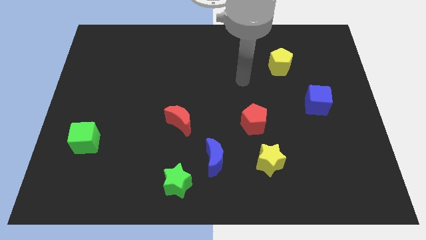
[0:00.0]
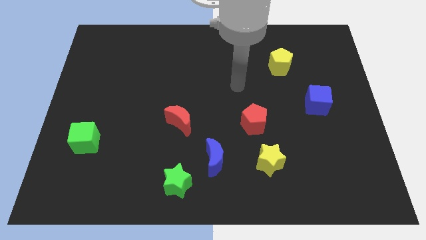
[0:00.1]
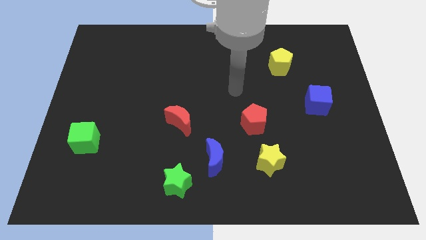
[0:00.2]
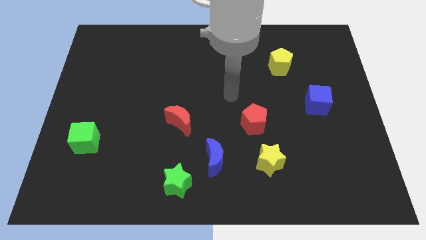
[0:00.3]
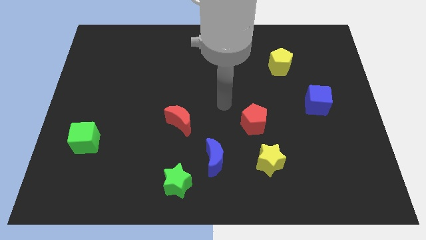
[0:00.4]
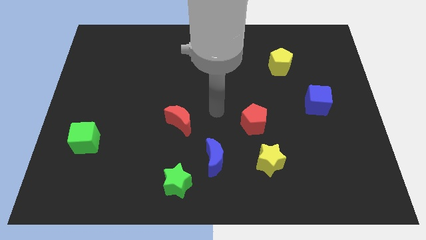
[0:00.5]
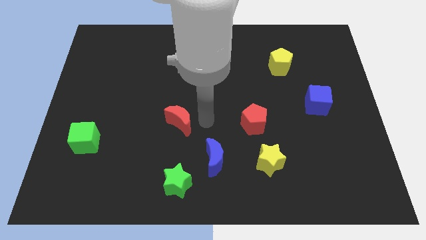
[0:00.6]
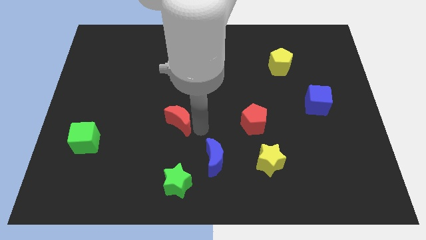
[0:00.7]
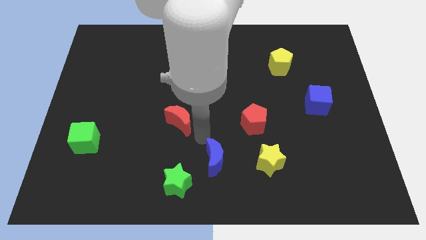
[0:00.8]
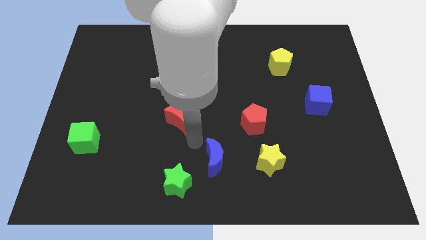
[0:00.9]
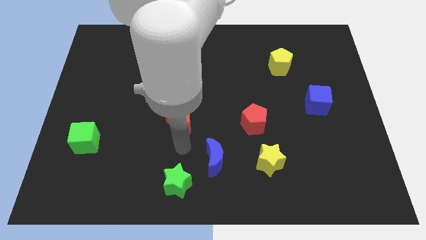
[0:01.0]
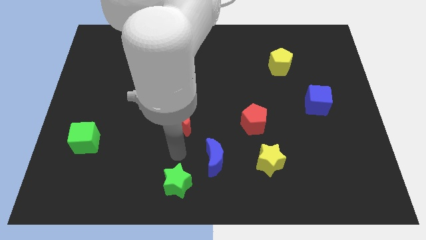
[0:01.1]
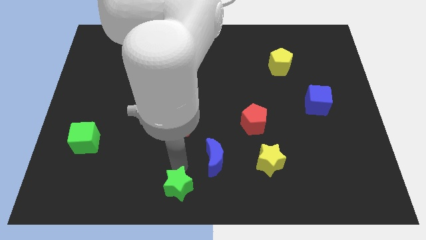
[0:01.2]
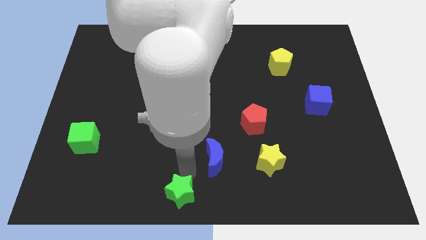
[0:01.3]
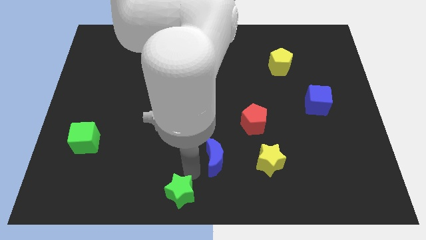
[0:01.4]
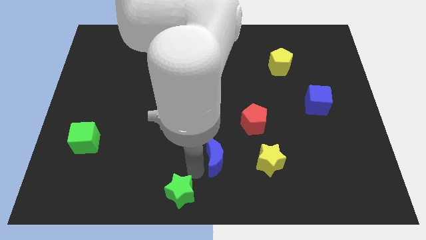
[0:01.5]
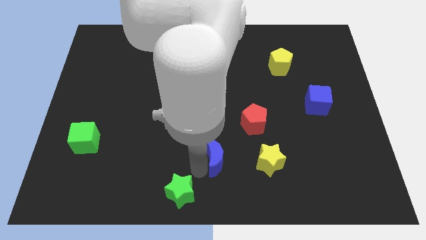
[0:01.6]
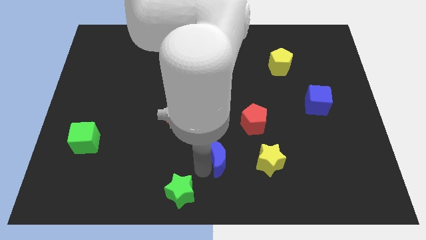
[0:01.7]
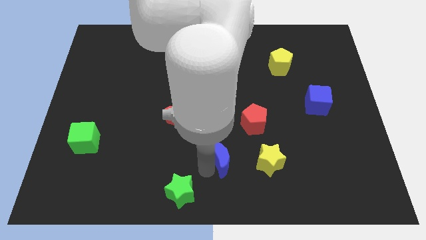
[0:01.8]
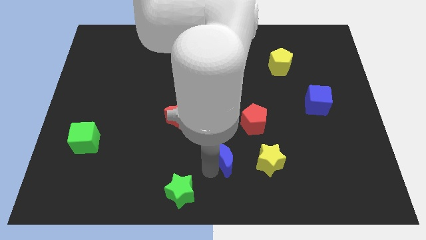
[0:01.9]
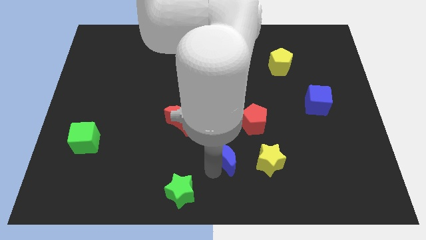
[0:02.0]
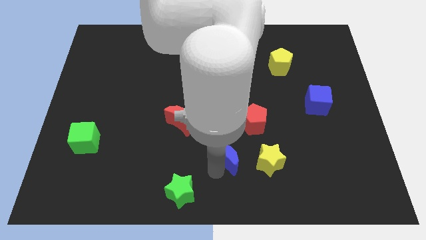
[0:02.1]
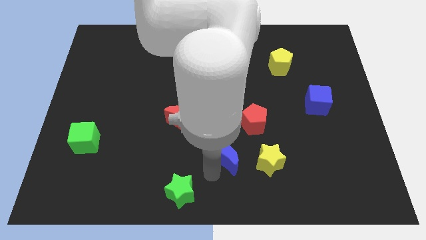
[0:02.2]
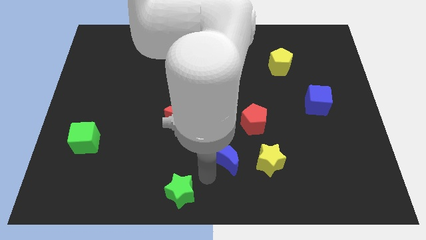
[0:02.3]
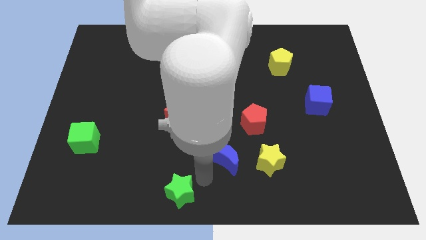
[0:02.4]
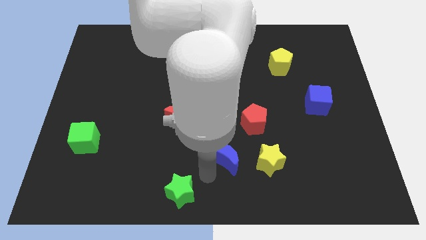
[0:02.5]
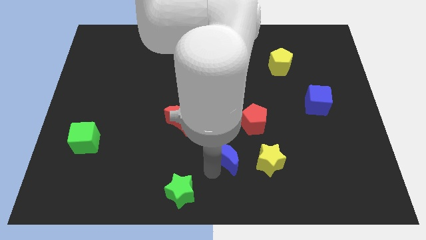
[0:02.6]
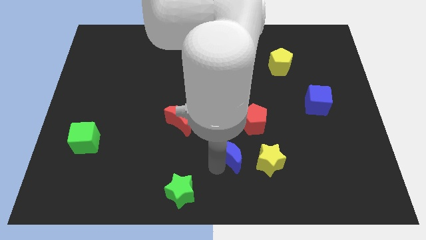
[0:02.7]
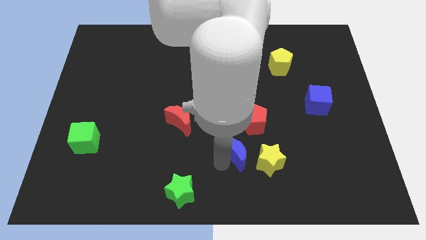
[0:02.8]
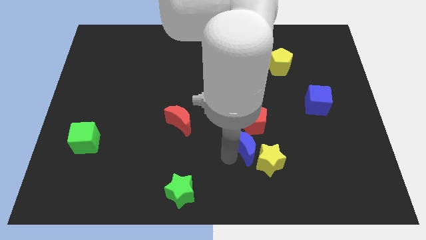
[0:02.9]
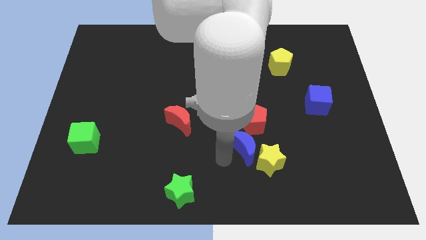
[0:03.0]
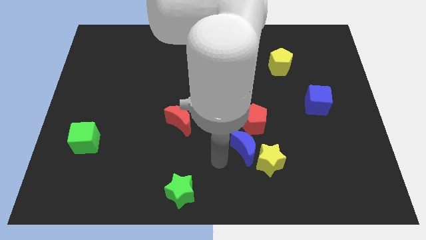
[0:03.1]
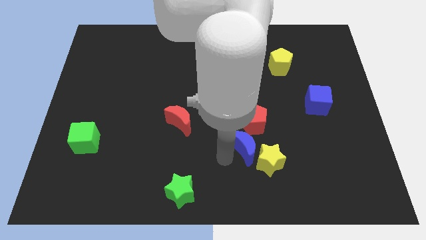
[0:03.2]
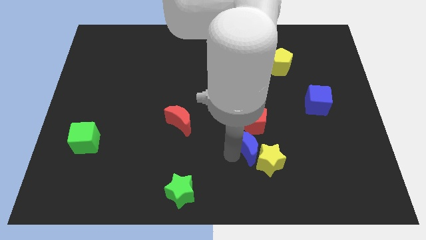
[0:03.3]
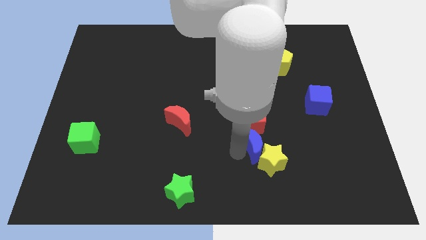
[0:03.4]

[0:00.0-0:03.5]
move the blue moon slightly upwards and to the right diagonally

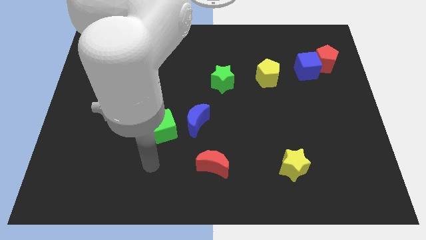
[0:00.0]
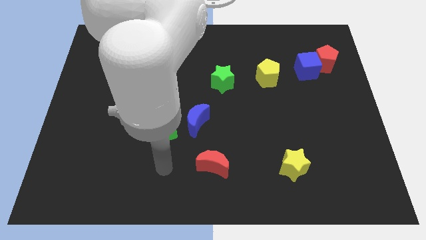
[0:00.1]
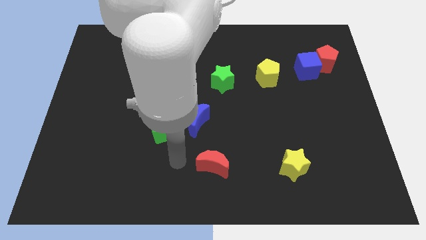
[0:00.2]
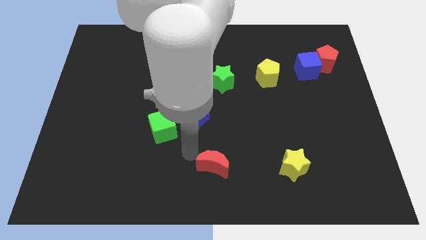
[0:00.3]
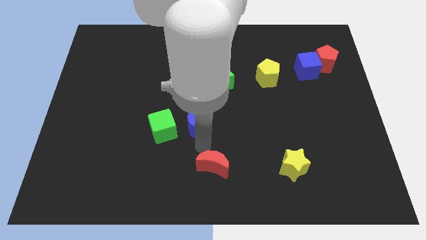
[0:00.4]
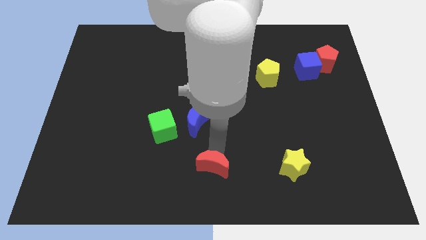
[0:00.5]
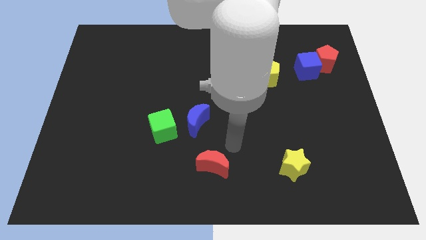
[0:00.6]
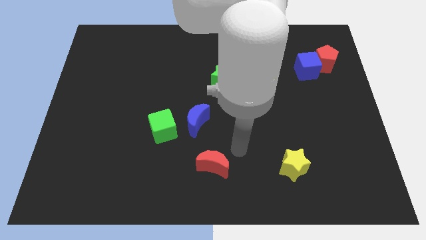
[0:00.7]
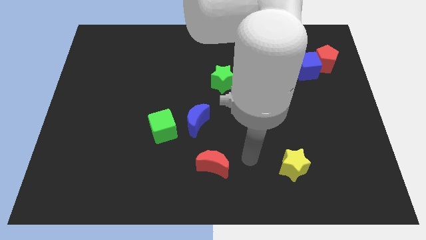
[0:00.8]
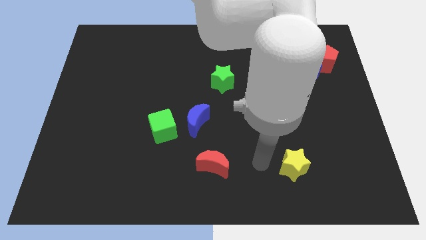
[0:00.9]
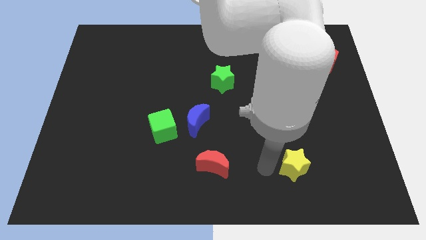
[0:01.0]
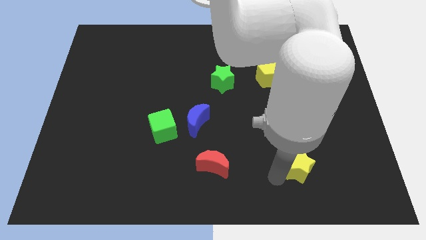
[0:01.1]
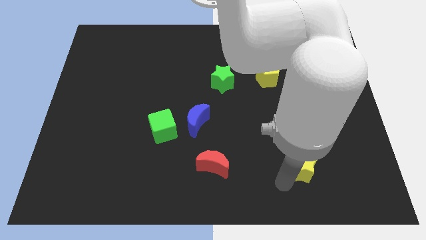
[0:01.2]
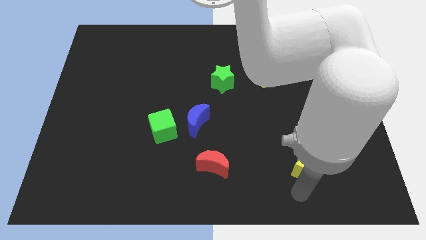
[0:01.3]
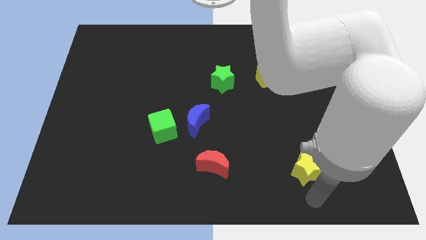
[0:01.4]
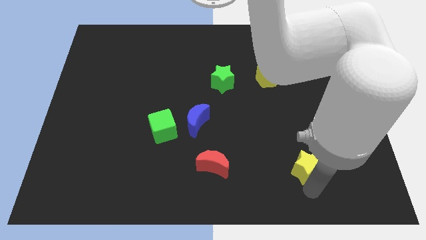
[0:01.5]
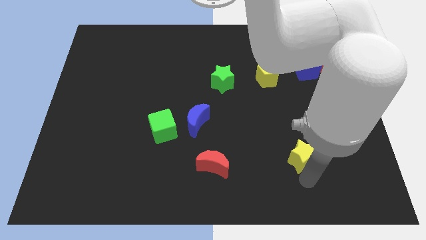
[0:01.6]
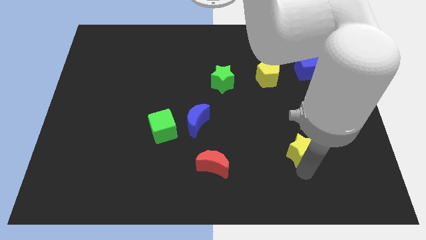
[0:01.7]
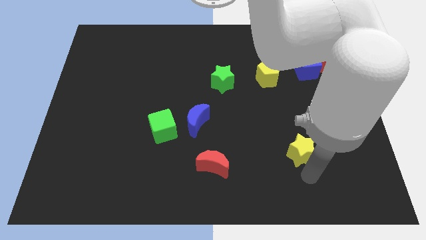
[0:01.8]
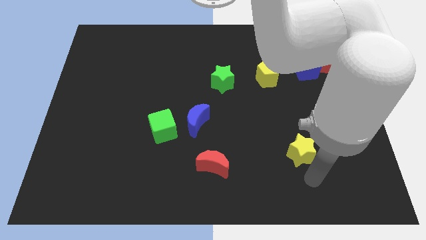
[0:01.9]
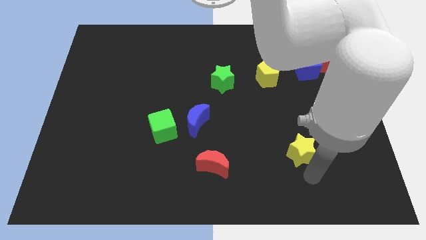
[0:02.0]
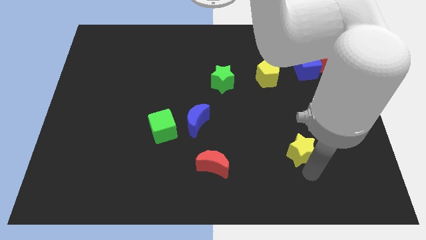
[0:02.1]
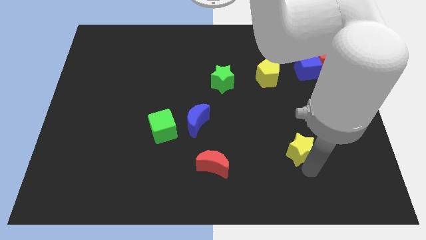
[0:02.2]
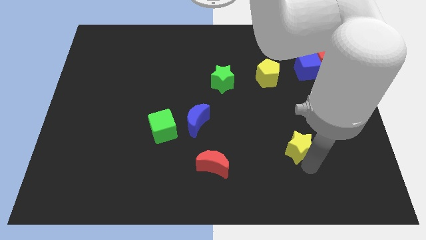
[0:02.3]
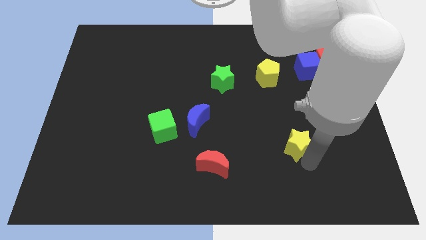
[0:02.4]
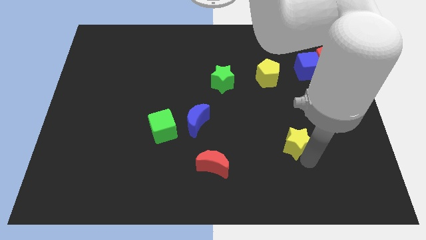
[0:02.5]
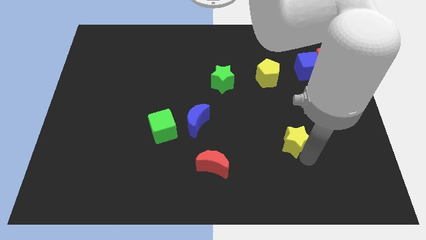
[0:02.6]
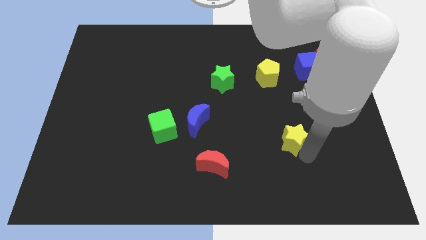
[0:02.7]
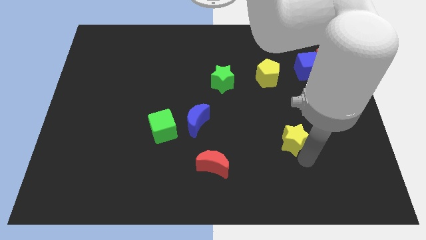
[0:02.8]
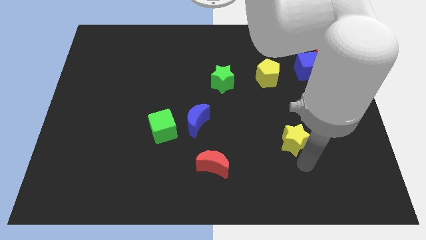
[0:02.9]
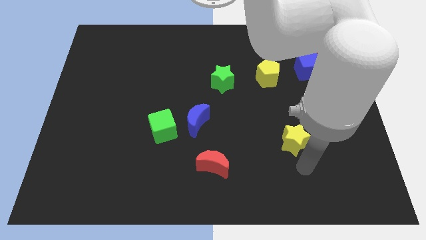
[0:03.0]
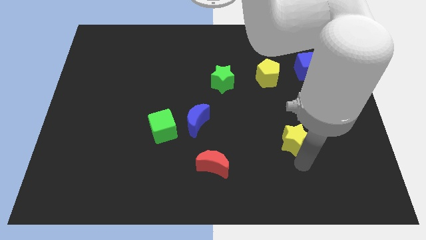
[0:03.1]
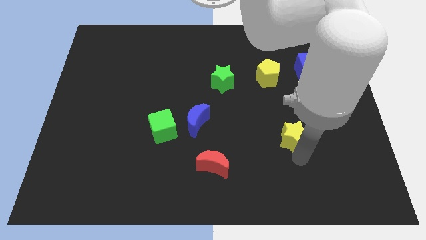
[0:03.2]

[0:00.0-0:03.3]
move the yellow star somewhat upwards

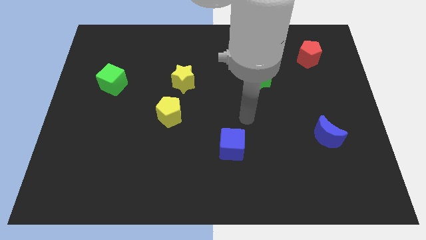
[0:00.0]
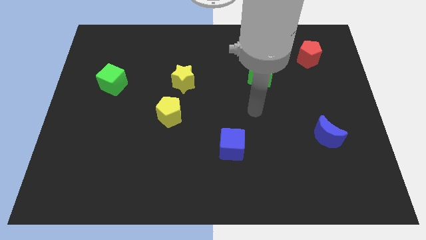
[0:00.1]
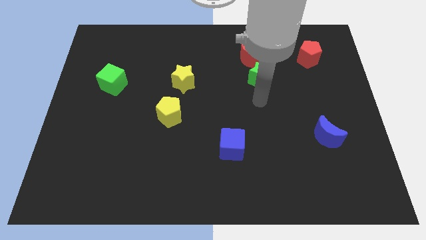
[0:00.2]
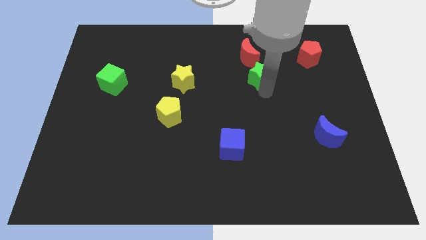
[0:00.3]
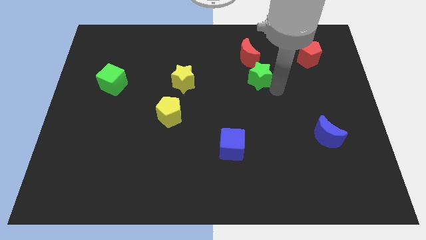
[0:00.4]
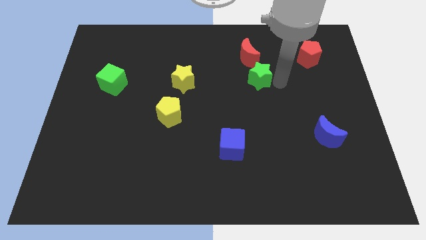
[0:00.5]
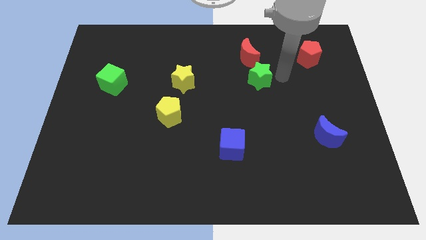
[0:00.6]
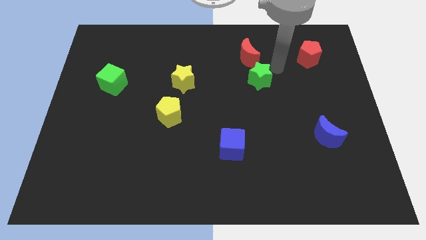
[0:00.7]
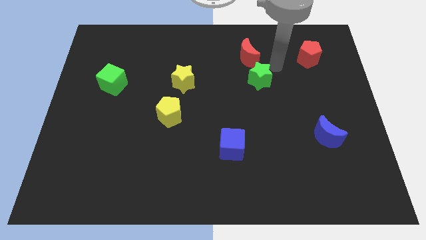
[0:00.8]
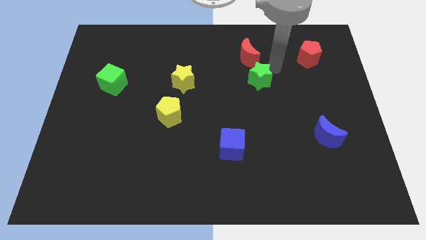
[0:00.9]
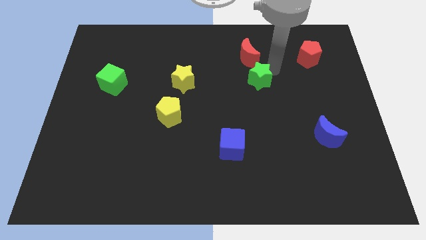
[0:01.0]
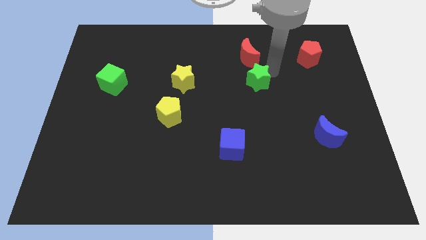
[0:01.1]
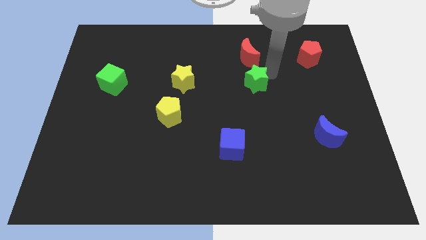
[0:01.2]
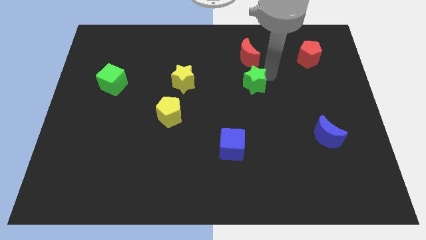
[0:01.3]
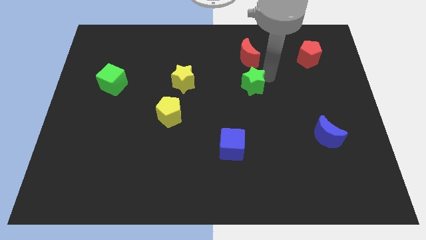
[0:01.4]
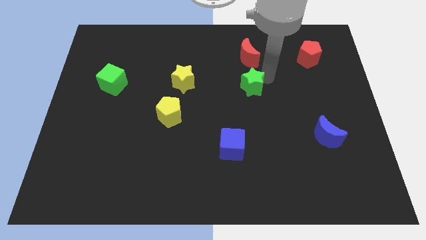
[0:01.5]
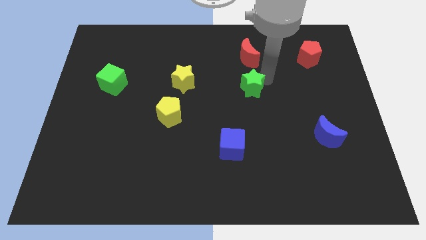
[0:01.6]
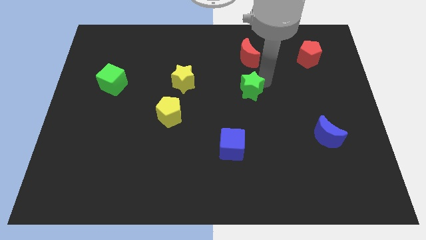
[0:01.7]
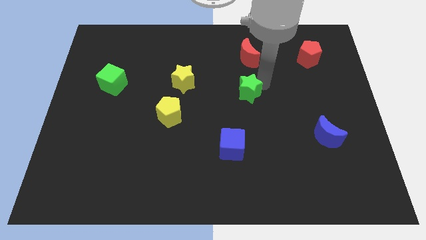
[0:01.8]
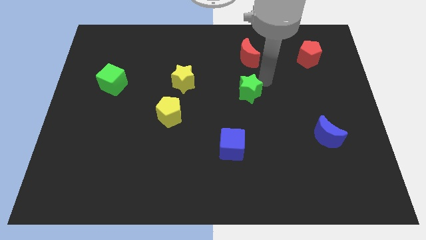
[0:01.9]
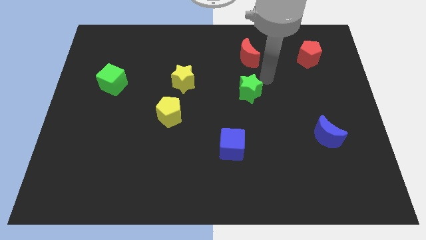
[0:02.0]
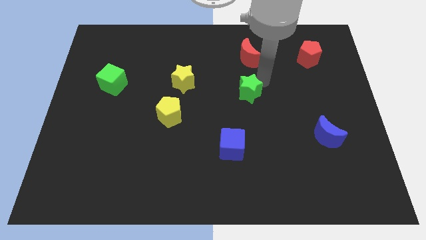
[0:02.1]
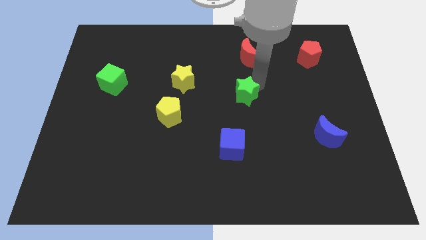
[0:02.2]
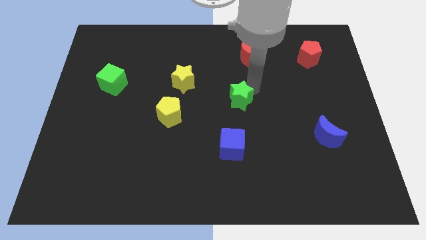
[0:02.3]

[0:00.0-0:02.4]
slightly push the green star downwards and to the left
